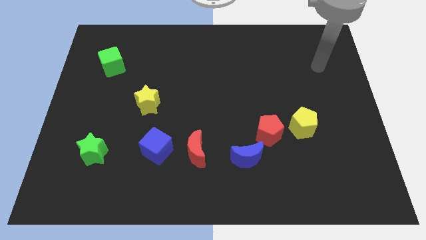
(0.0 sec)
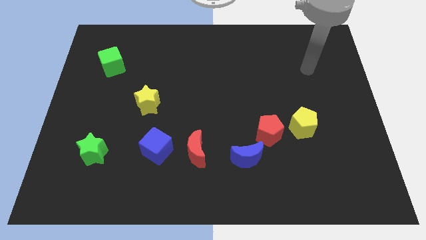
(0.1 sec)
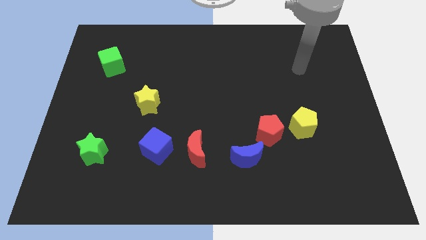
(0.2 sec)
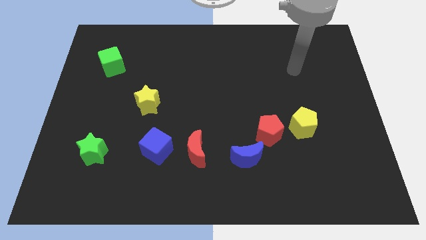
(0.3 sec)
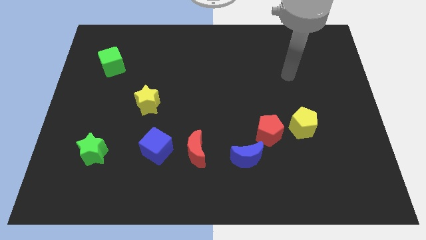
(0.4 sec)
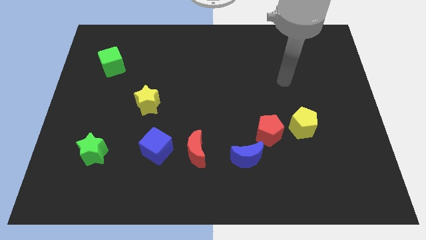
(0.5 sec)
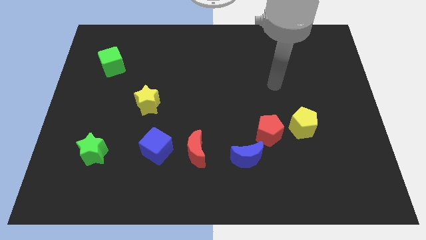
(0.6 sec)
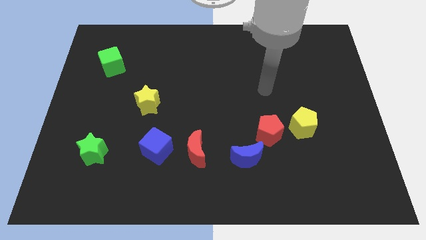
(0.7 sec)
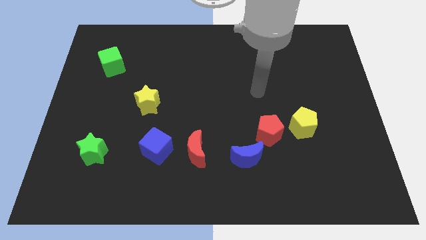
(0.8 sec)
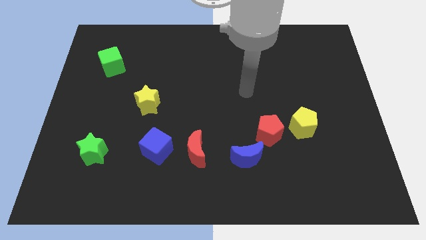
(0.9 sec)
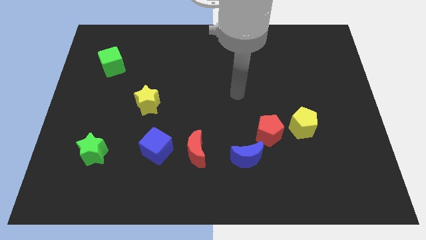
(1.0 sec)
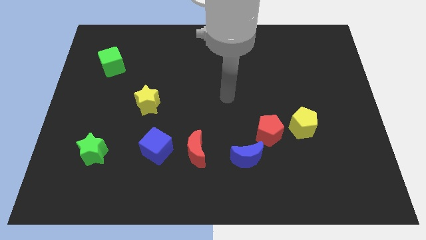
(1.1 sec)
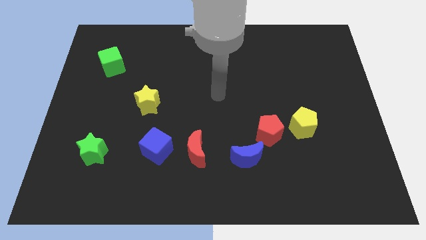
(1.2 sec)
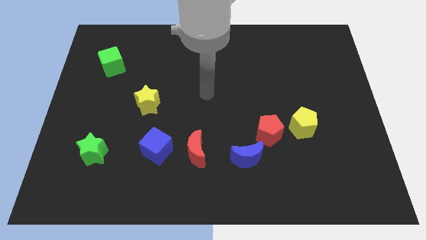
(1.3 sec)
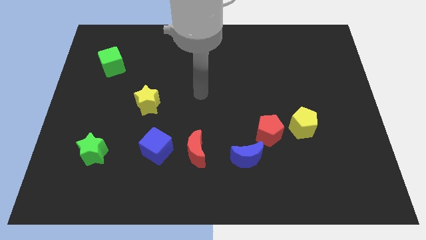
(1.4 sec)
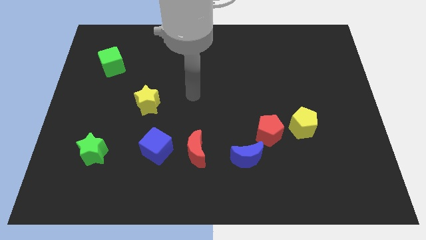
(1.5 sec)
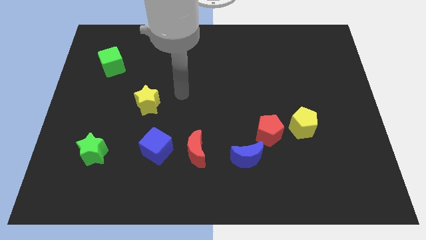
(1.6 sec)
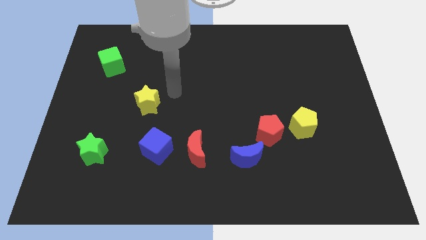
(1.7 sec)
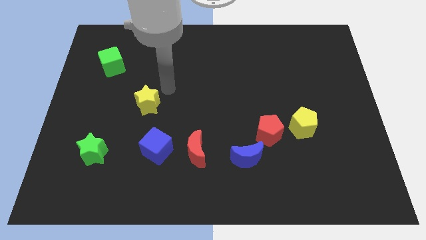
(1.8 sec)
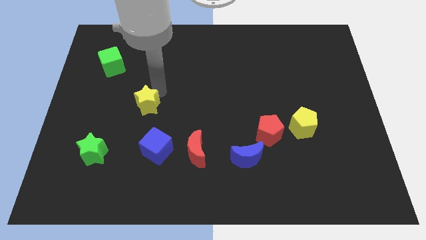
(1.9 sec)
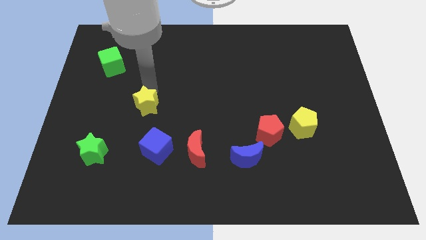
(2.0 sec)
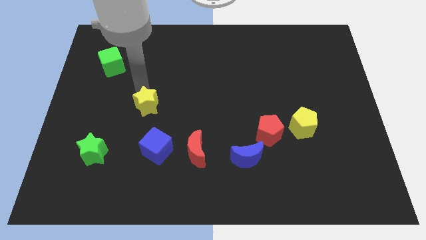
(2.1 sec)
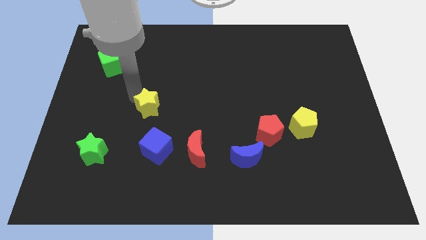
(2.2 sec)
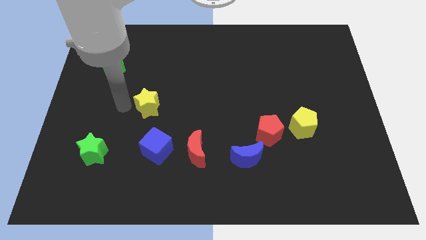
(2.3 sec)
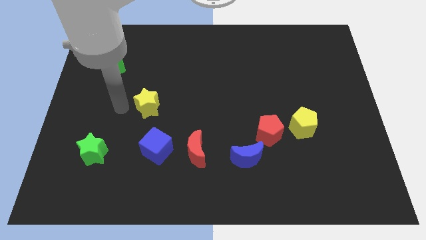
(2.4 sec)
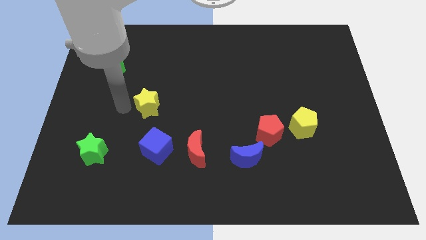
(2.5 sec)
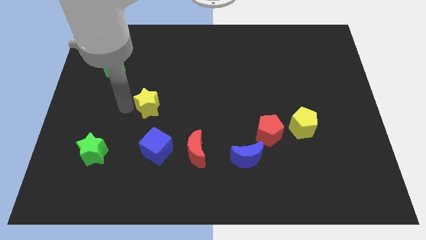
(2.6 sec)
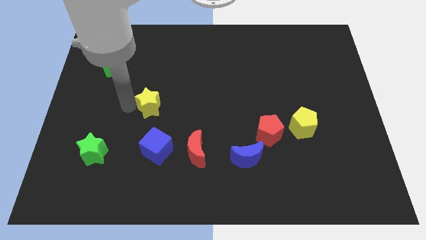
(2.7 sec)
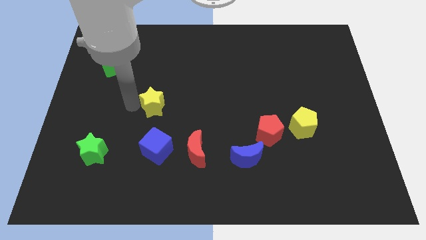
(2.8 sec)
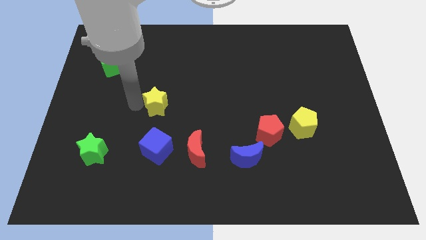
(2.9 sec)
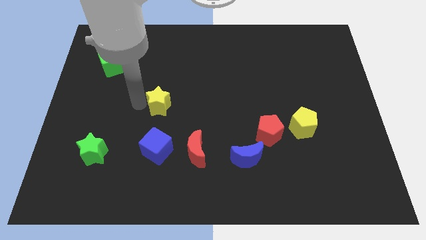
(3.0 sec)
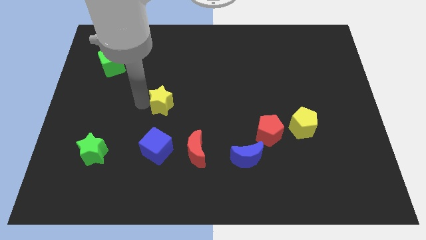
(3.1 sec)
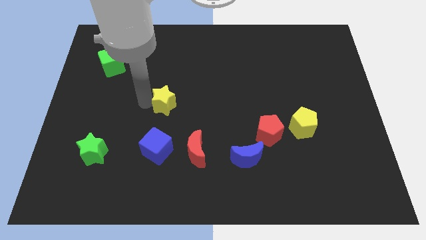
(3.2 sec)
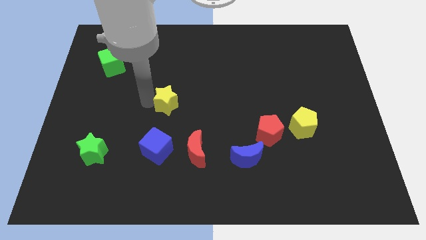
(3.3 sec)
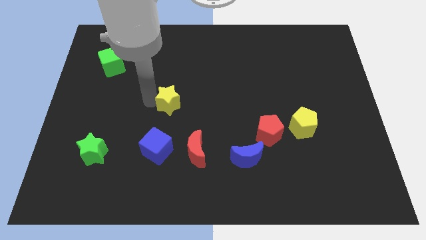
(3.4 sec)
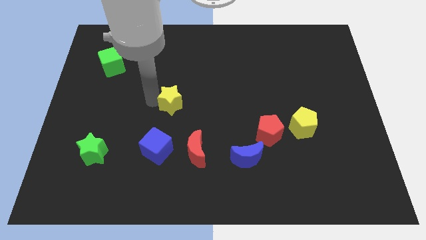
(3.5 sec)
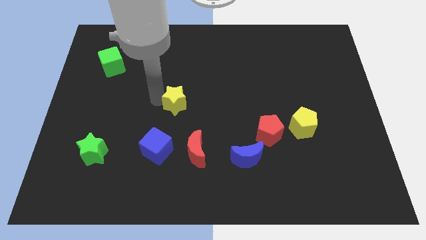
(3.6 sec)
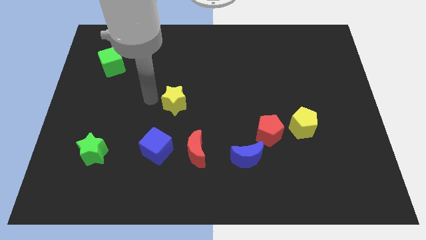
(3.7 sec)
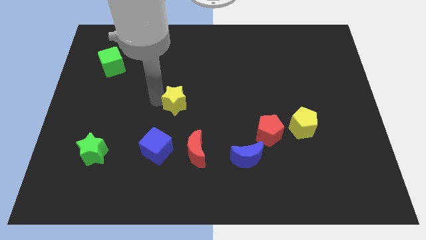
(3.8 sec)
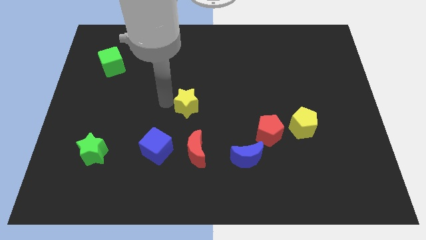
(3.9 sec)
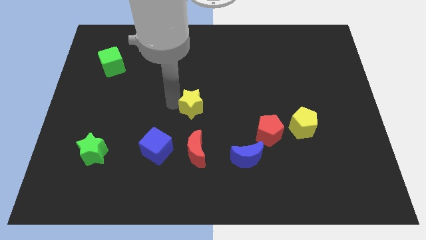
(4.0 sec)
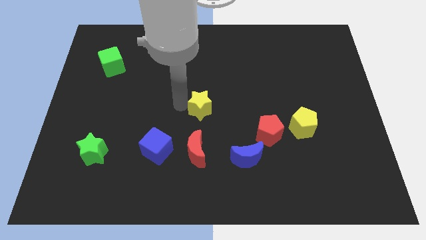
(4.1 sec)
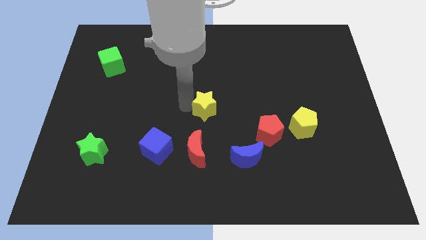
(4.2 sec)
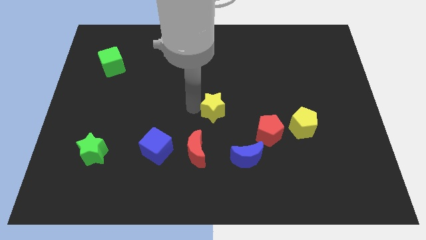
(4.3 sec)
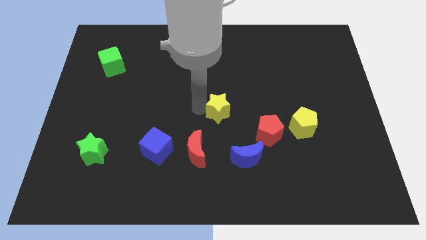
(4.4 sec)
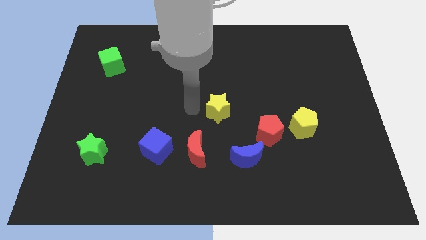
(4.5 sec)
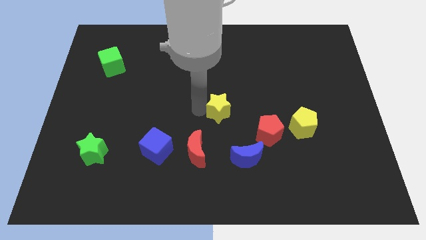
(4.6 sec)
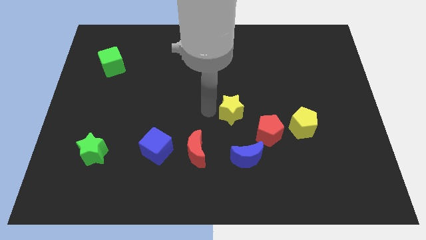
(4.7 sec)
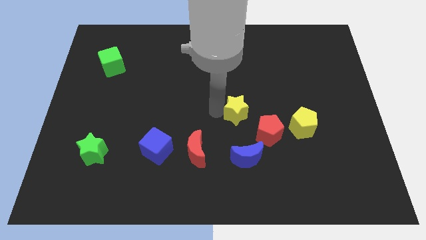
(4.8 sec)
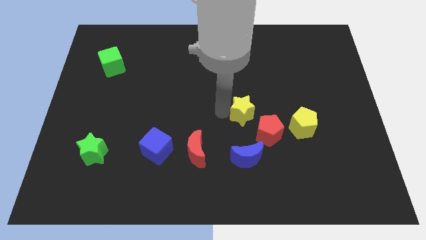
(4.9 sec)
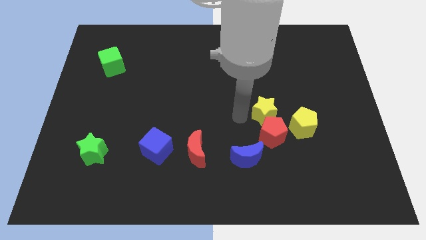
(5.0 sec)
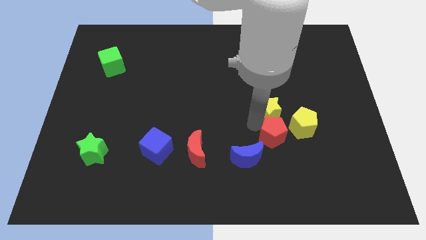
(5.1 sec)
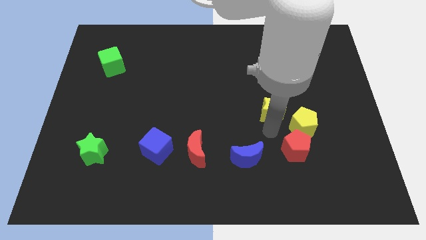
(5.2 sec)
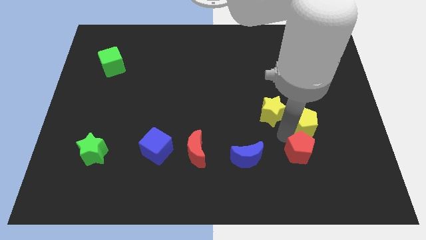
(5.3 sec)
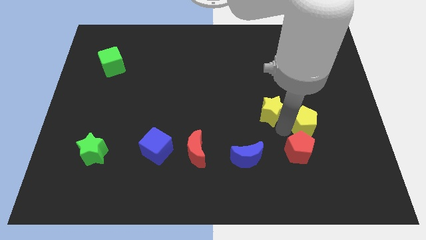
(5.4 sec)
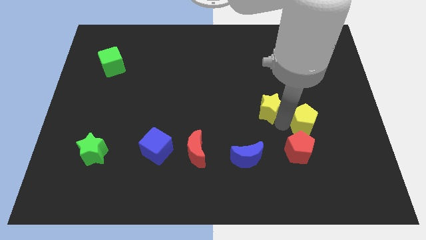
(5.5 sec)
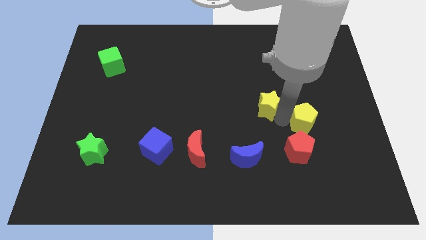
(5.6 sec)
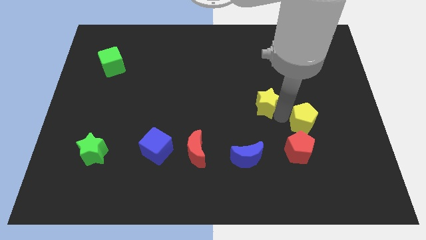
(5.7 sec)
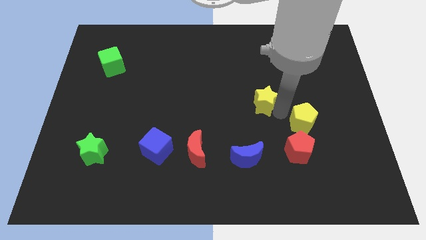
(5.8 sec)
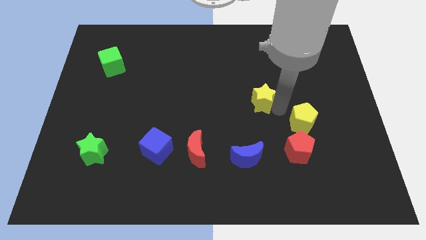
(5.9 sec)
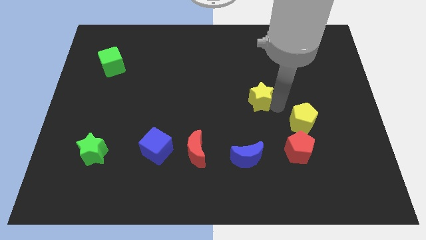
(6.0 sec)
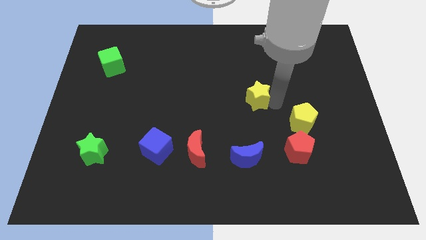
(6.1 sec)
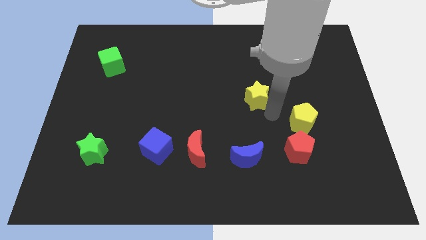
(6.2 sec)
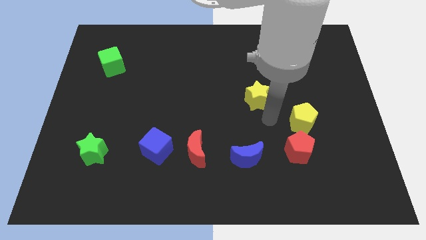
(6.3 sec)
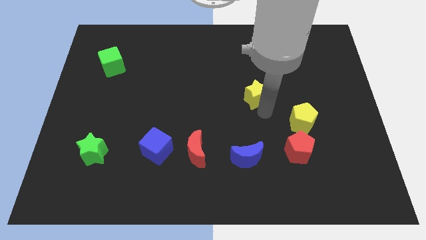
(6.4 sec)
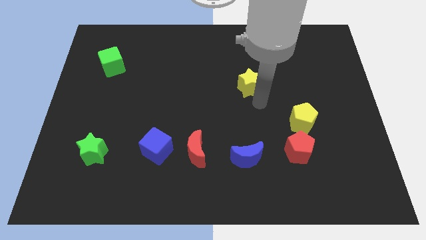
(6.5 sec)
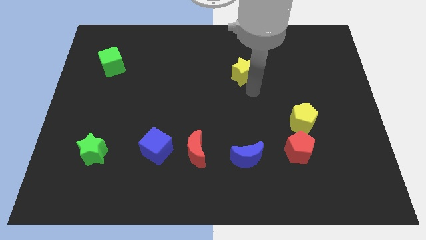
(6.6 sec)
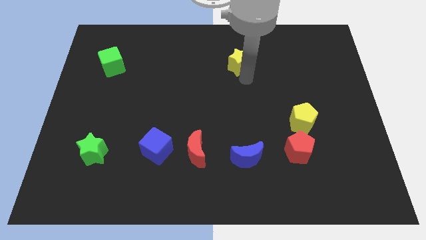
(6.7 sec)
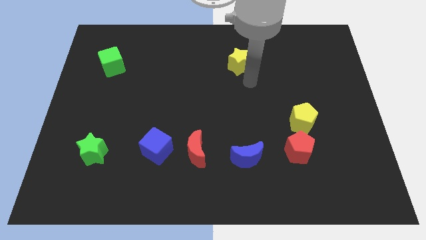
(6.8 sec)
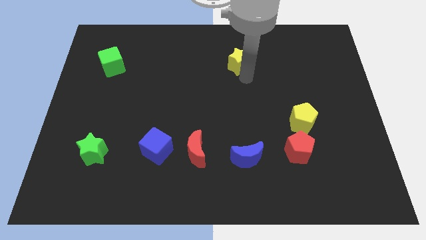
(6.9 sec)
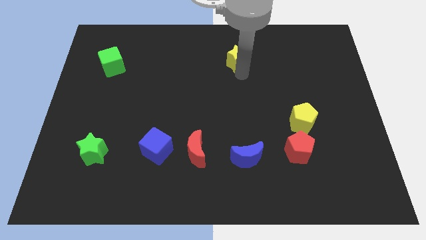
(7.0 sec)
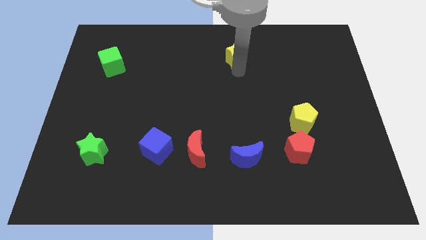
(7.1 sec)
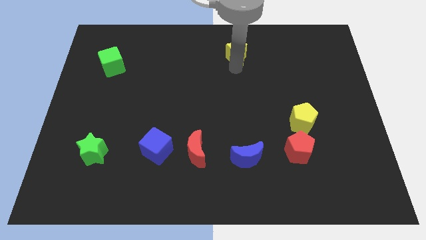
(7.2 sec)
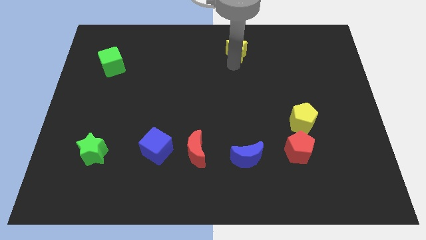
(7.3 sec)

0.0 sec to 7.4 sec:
slide the yellow star to the top side
